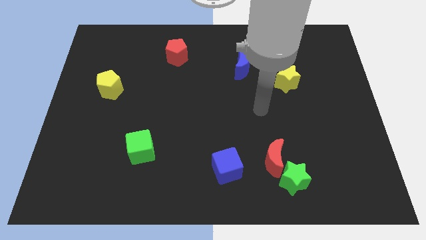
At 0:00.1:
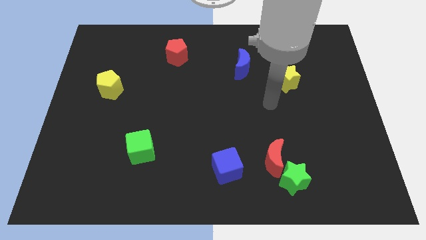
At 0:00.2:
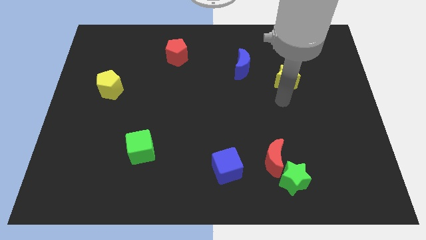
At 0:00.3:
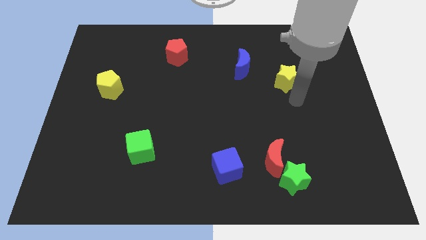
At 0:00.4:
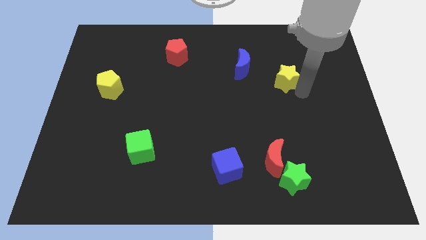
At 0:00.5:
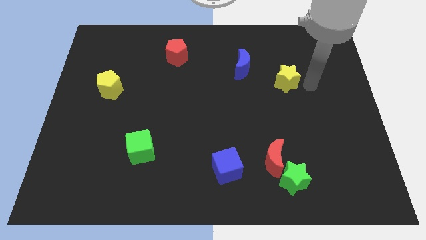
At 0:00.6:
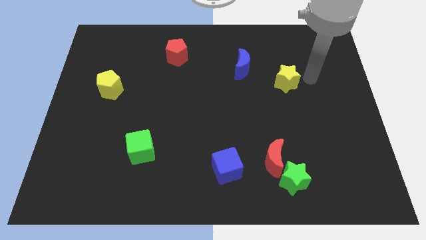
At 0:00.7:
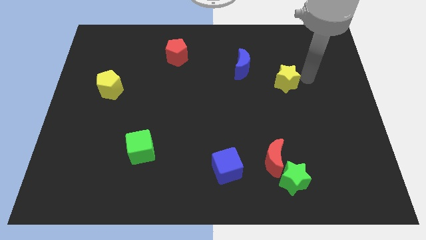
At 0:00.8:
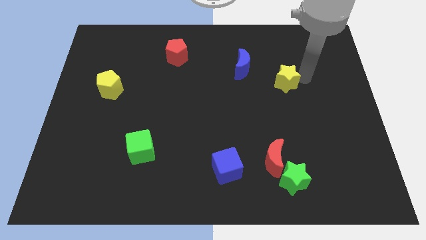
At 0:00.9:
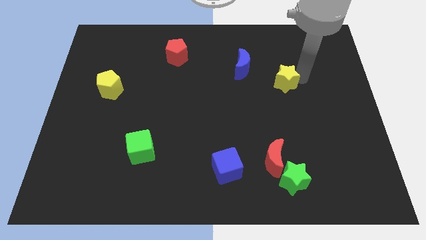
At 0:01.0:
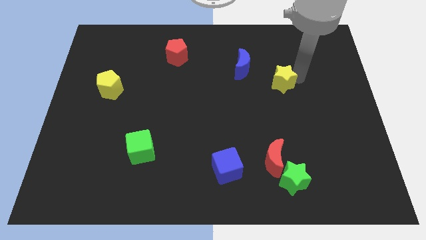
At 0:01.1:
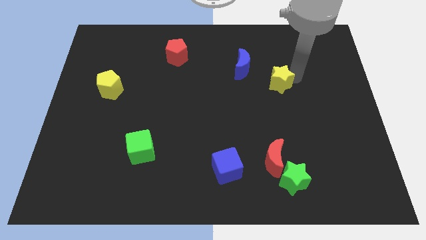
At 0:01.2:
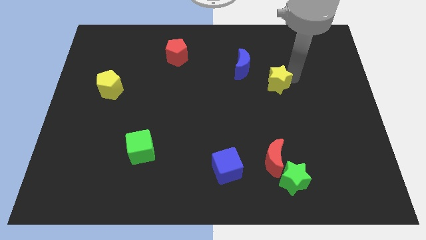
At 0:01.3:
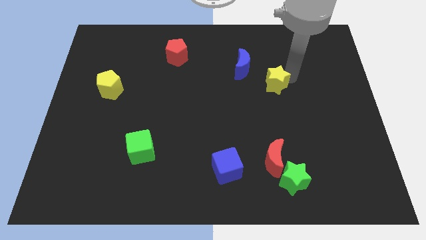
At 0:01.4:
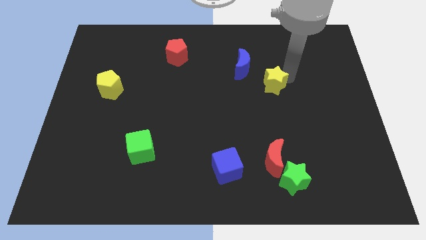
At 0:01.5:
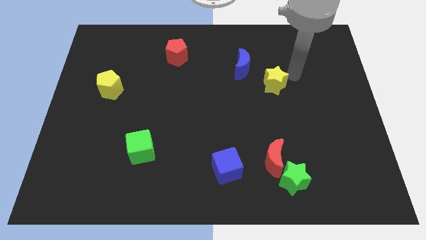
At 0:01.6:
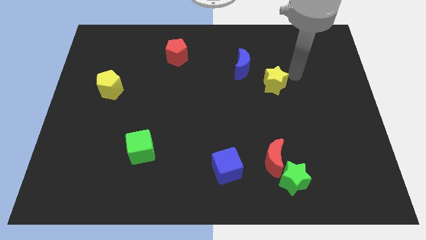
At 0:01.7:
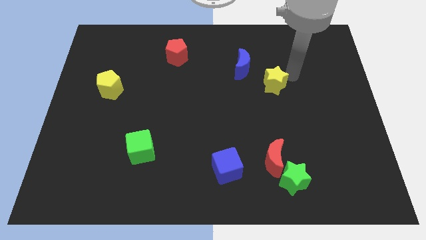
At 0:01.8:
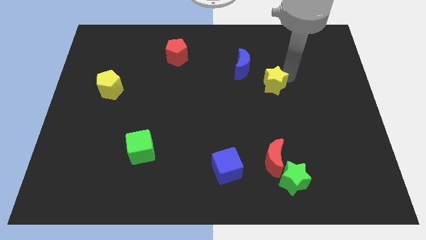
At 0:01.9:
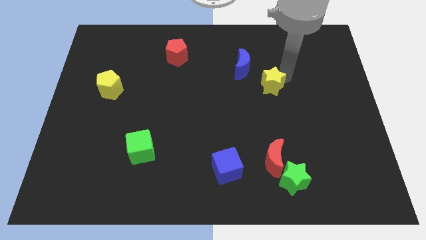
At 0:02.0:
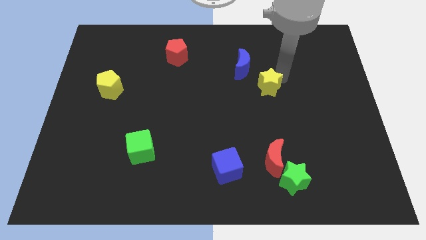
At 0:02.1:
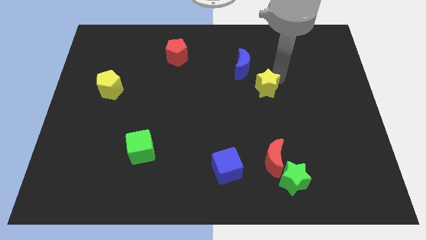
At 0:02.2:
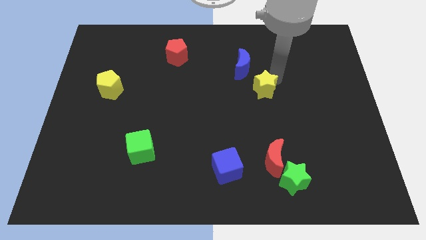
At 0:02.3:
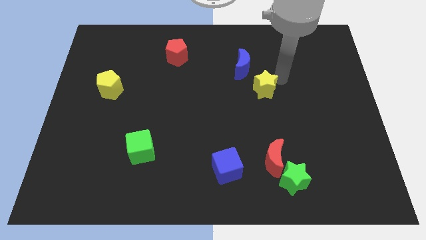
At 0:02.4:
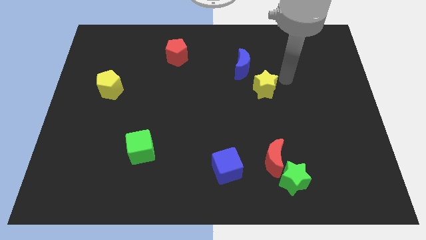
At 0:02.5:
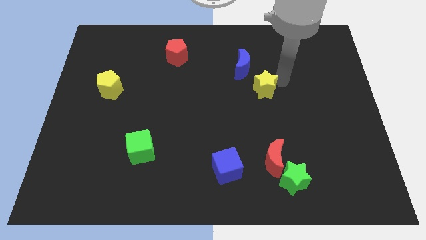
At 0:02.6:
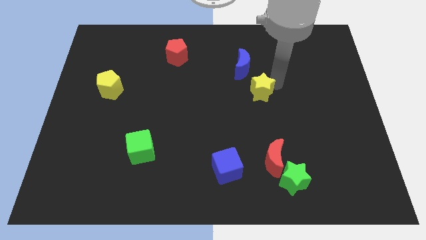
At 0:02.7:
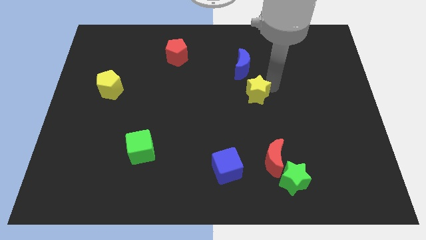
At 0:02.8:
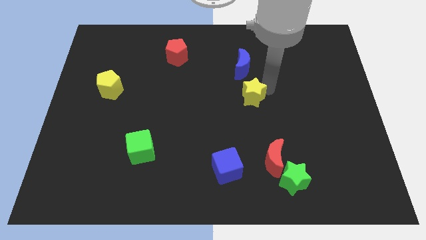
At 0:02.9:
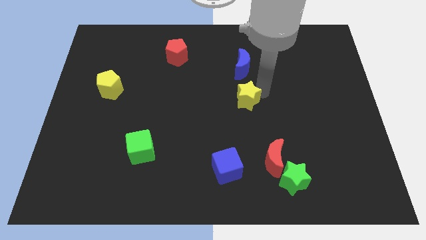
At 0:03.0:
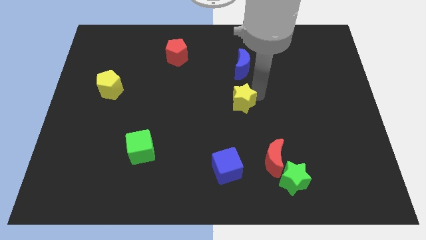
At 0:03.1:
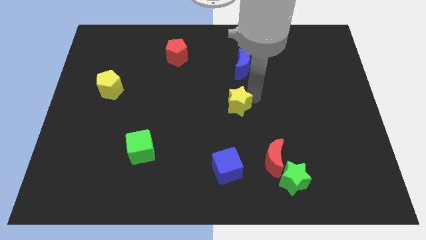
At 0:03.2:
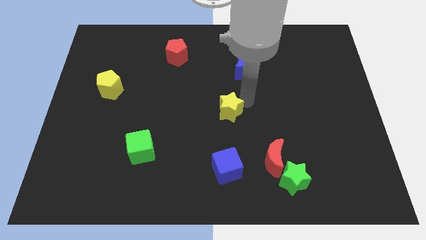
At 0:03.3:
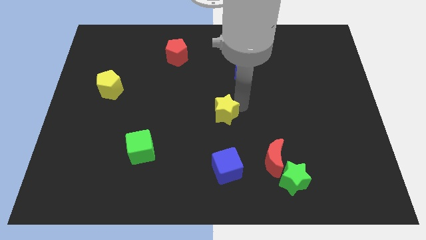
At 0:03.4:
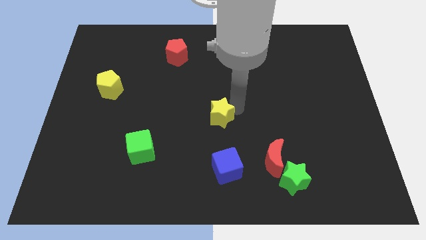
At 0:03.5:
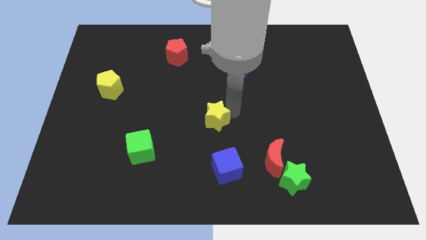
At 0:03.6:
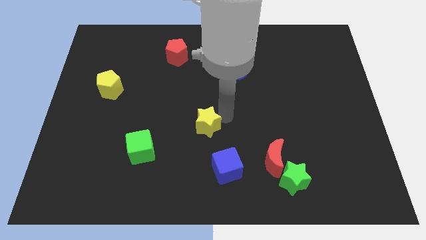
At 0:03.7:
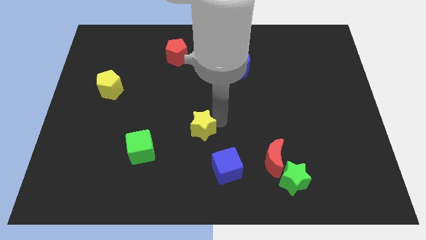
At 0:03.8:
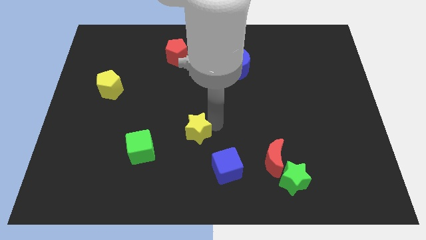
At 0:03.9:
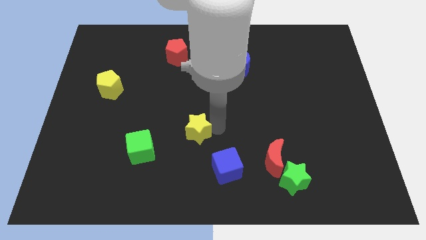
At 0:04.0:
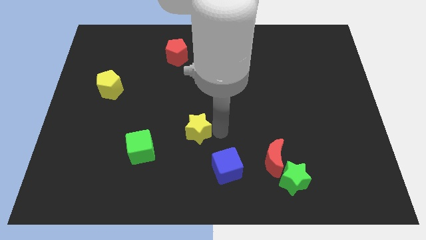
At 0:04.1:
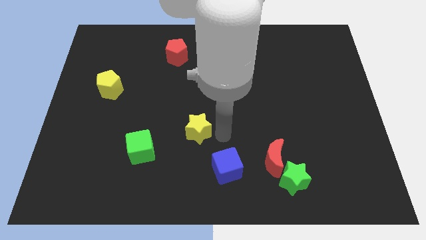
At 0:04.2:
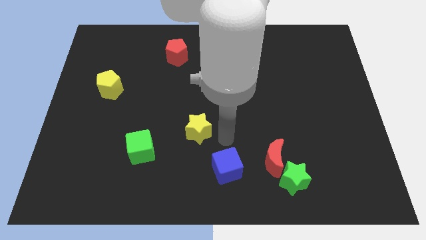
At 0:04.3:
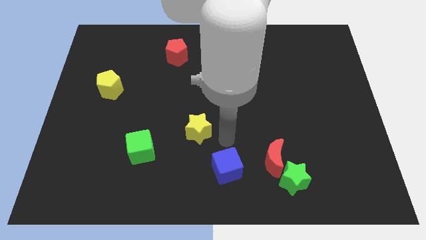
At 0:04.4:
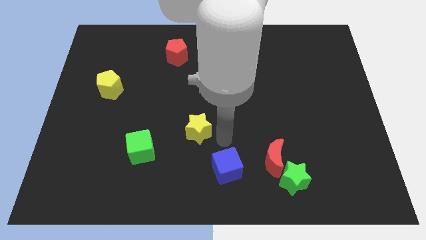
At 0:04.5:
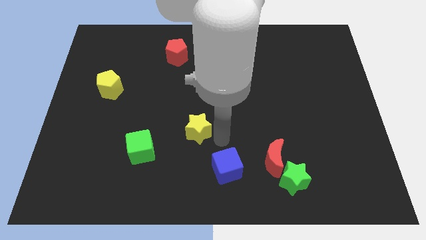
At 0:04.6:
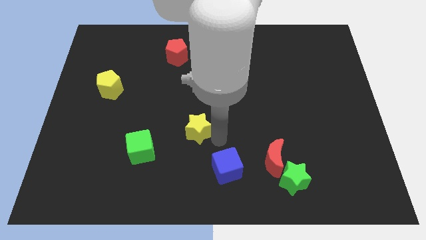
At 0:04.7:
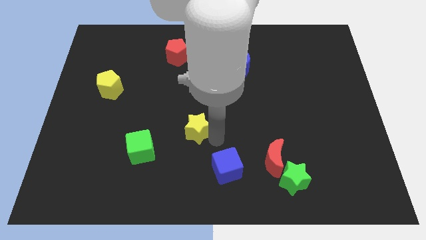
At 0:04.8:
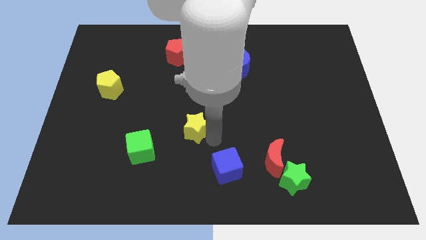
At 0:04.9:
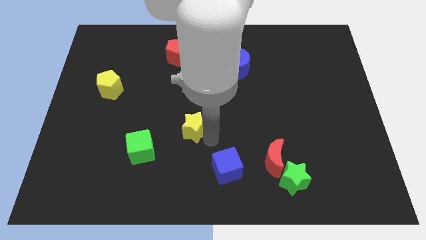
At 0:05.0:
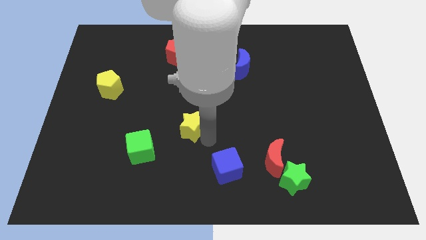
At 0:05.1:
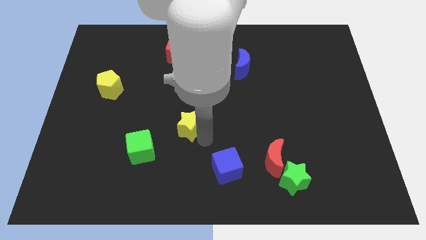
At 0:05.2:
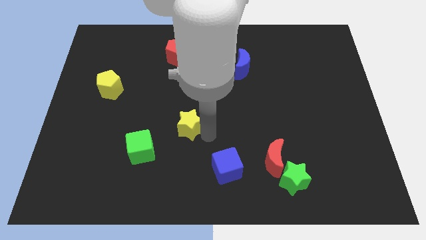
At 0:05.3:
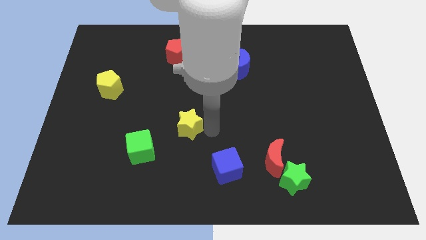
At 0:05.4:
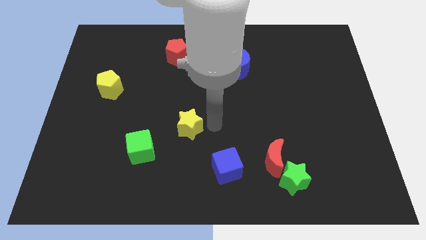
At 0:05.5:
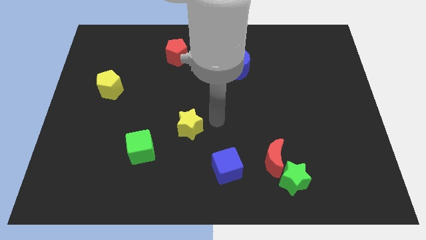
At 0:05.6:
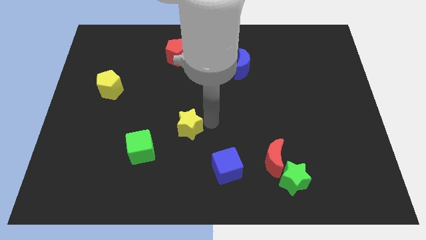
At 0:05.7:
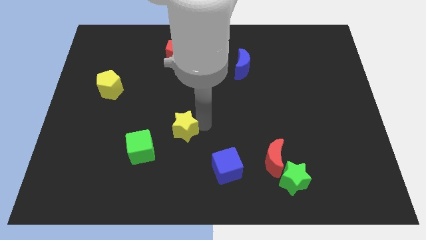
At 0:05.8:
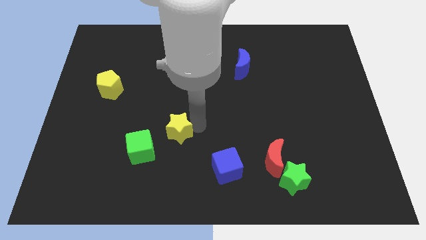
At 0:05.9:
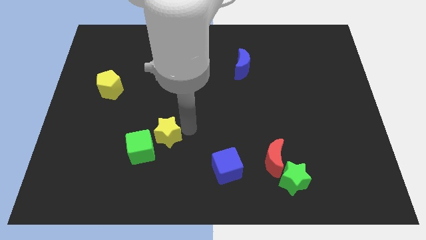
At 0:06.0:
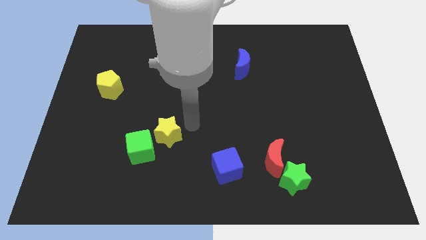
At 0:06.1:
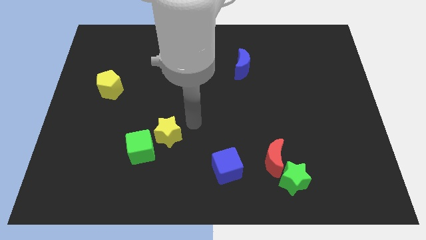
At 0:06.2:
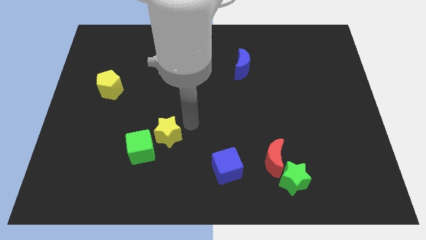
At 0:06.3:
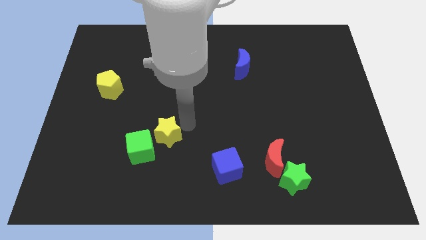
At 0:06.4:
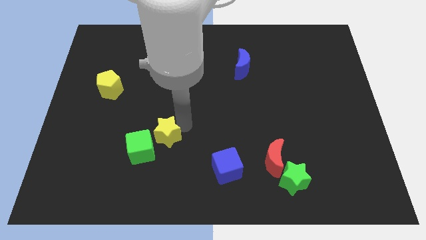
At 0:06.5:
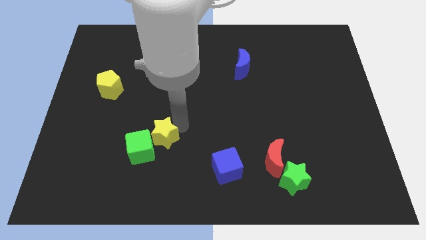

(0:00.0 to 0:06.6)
move the yellow star towards the green cube

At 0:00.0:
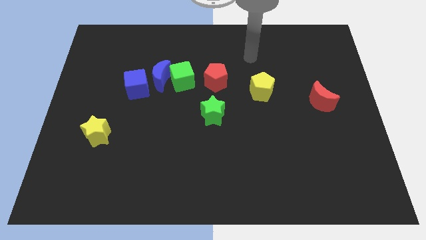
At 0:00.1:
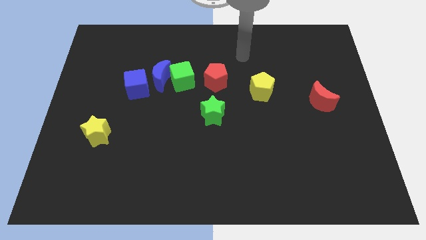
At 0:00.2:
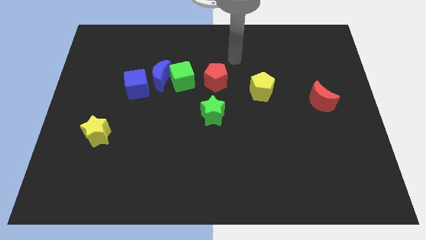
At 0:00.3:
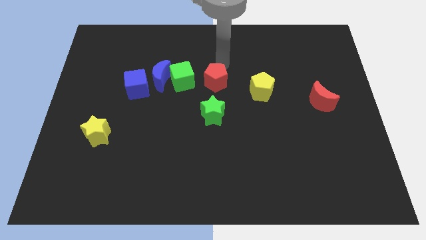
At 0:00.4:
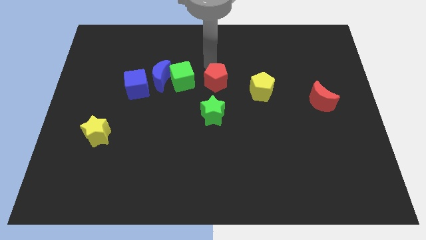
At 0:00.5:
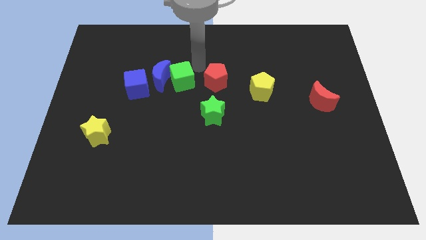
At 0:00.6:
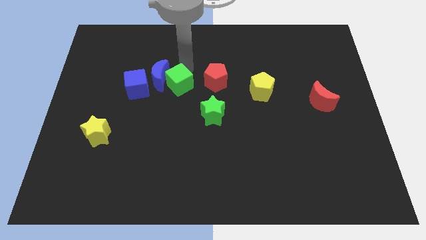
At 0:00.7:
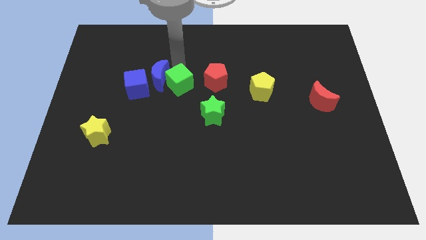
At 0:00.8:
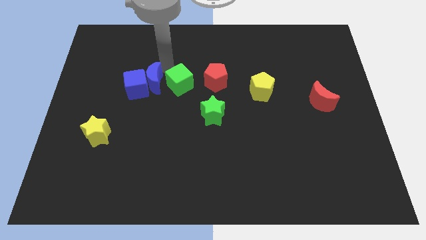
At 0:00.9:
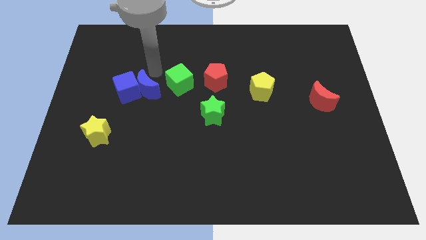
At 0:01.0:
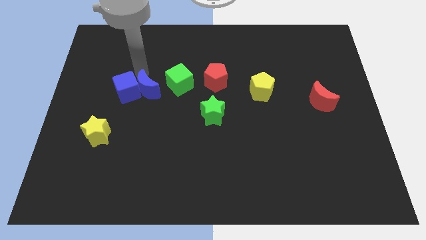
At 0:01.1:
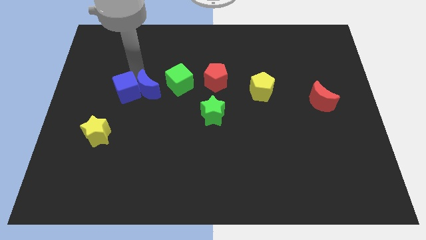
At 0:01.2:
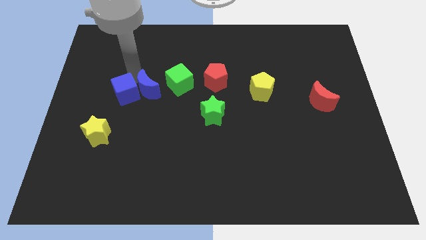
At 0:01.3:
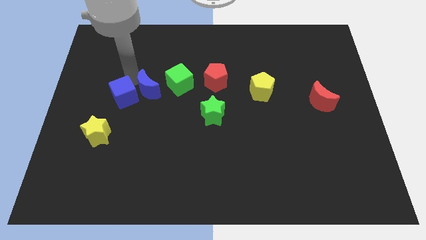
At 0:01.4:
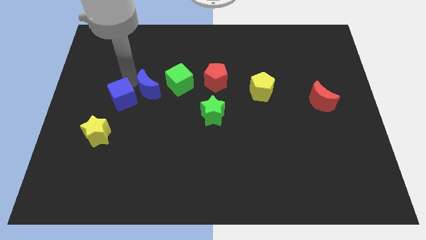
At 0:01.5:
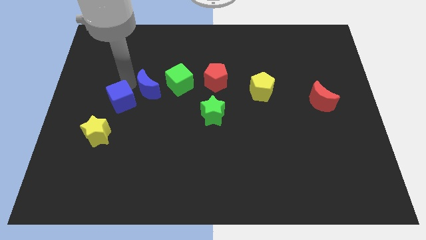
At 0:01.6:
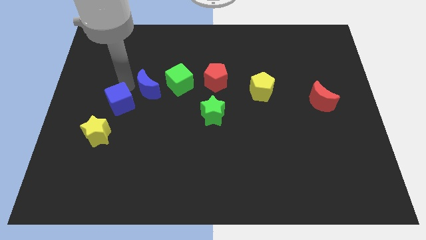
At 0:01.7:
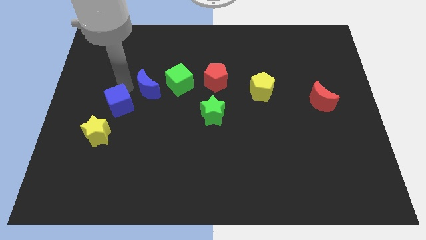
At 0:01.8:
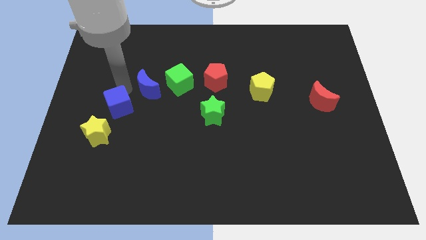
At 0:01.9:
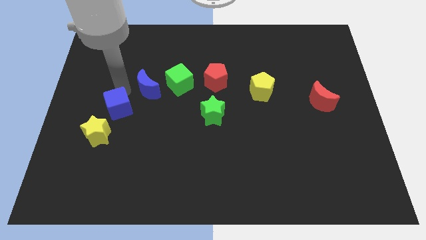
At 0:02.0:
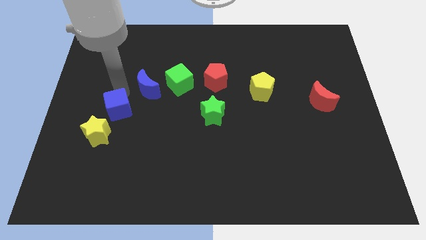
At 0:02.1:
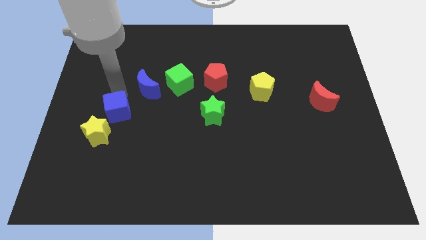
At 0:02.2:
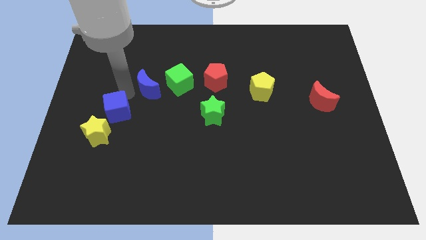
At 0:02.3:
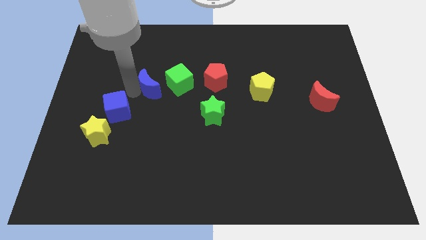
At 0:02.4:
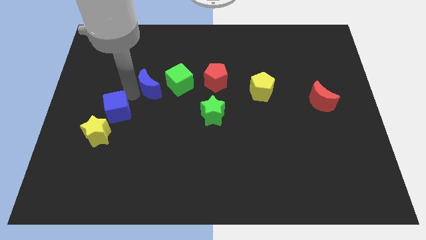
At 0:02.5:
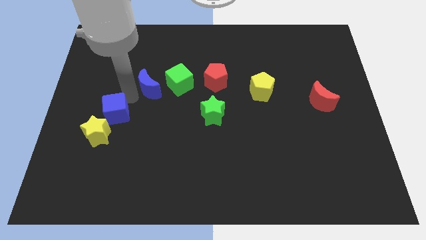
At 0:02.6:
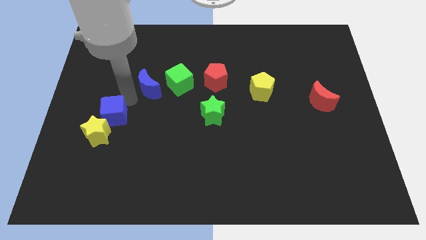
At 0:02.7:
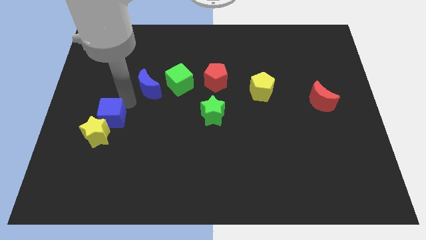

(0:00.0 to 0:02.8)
move the blue cube next to the yellow star
